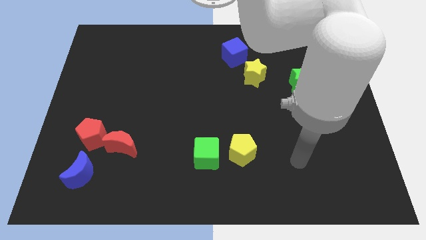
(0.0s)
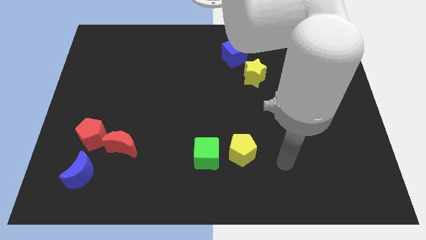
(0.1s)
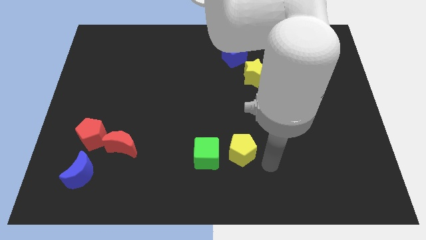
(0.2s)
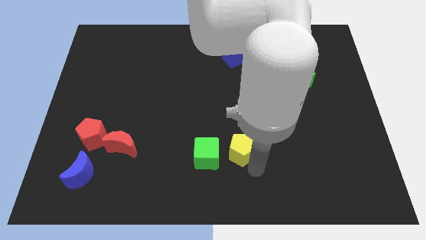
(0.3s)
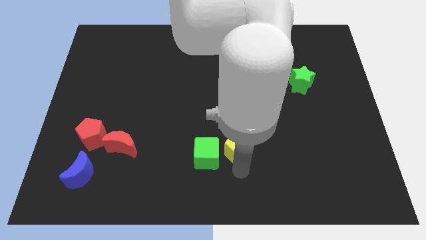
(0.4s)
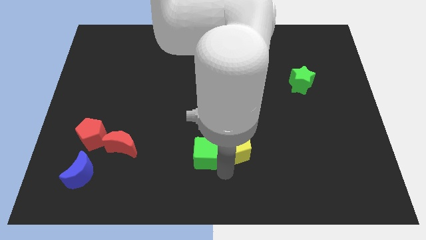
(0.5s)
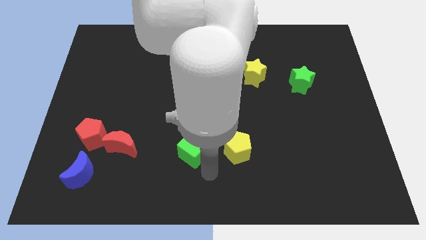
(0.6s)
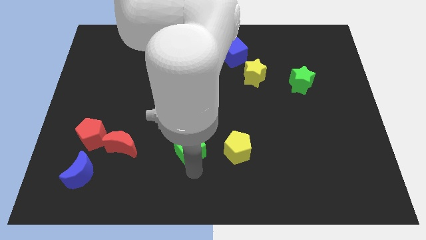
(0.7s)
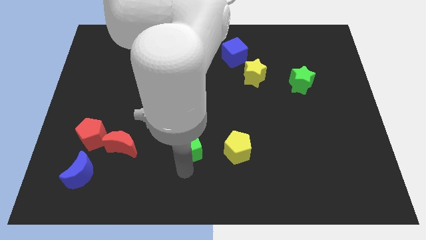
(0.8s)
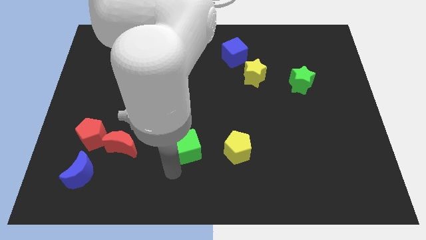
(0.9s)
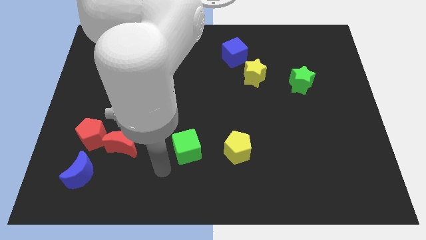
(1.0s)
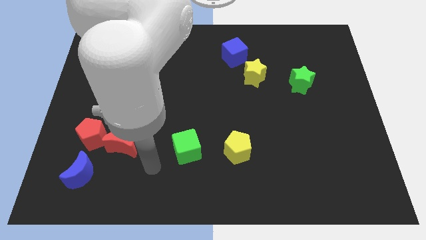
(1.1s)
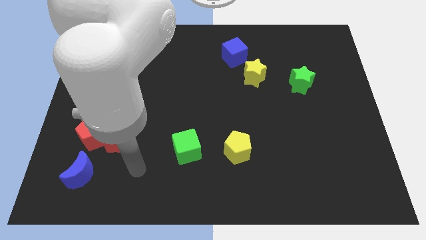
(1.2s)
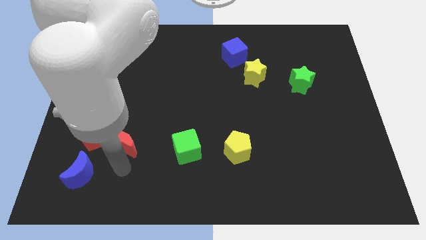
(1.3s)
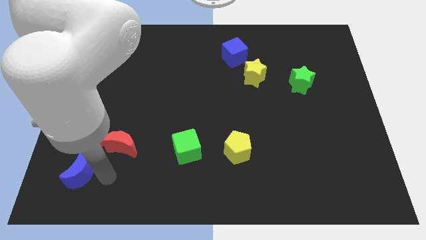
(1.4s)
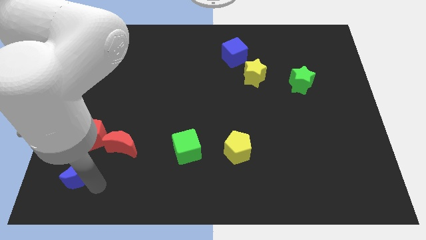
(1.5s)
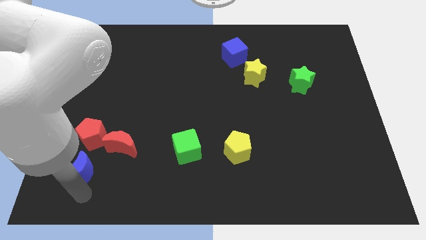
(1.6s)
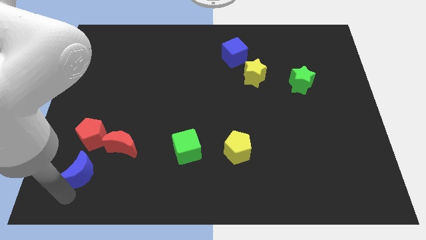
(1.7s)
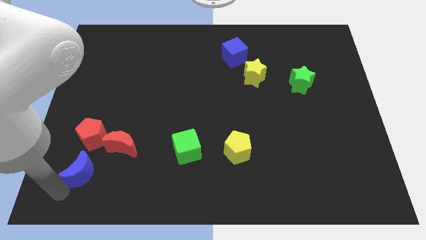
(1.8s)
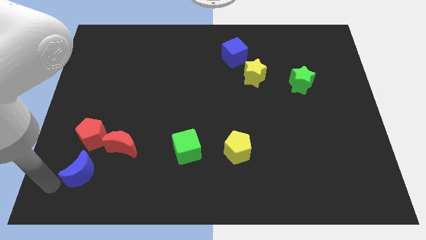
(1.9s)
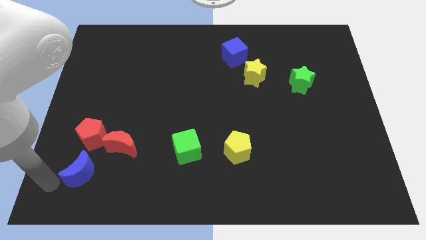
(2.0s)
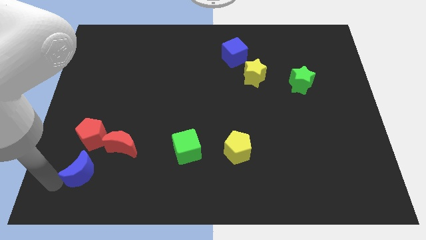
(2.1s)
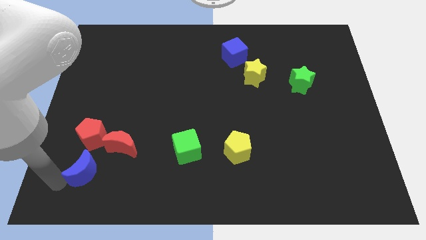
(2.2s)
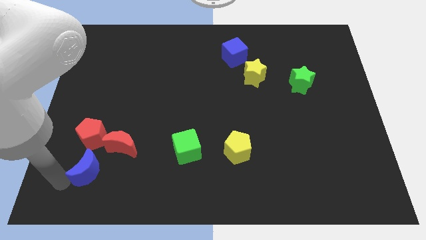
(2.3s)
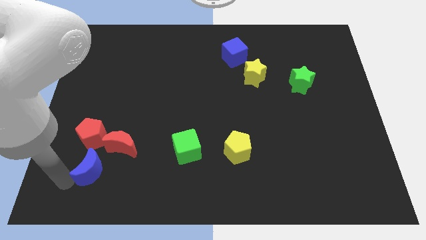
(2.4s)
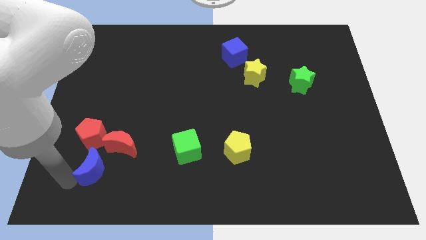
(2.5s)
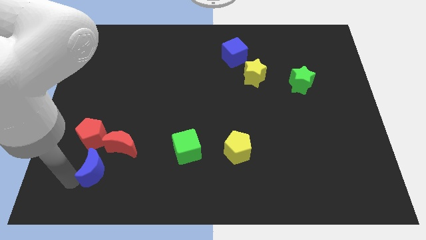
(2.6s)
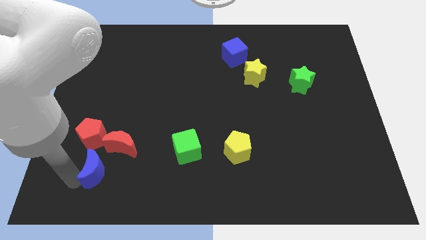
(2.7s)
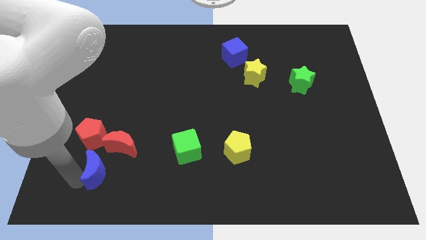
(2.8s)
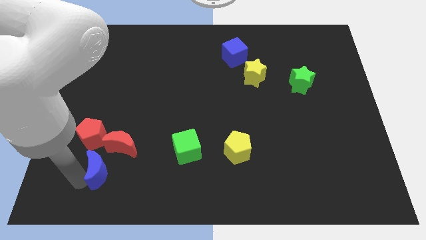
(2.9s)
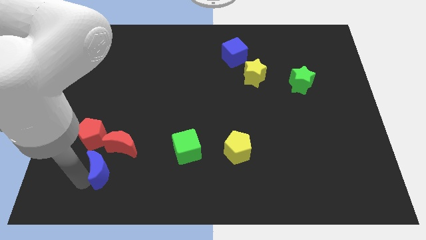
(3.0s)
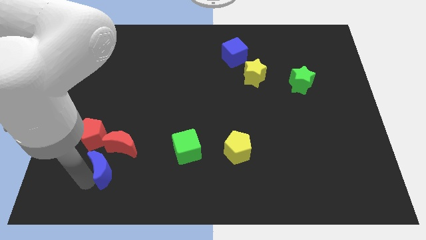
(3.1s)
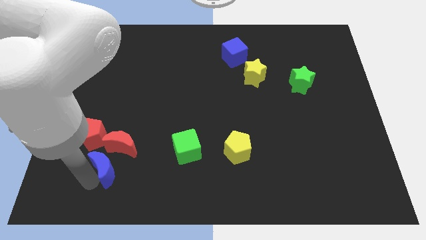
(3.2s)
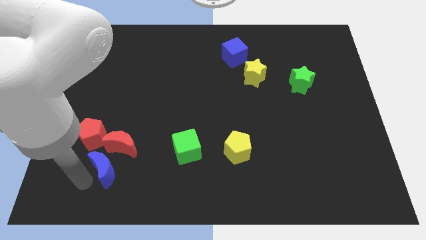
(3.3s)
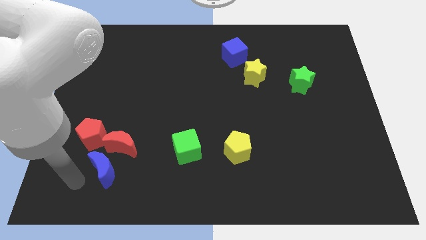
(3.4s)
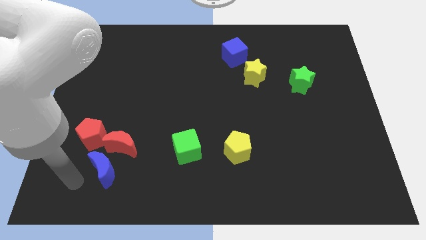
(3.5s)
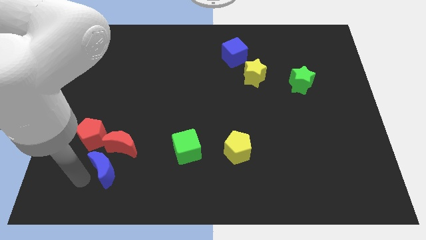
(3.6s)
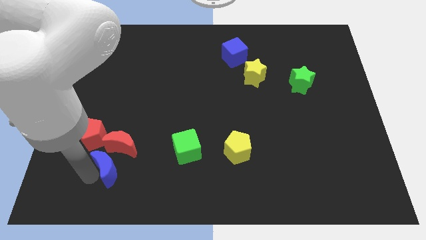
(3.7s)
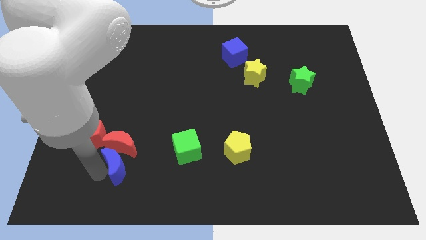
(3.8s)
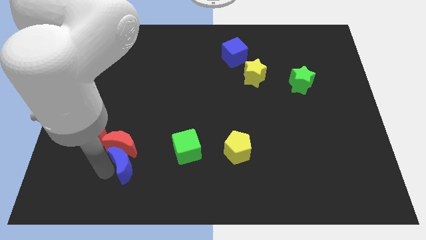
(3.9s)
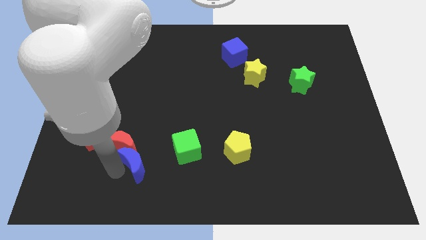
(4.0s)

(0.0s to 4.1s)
slightly move the blue moon diagonally up and to the right

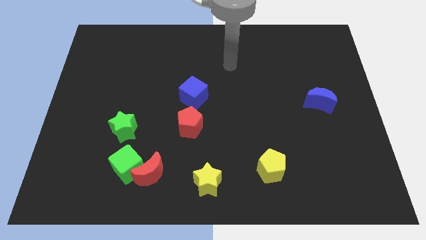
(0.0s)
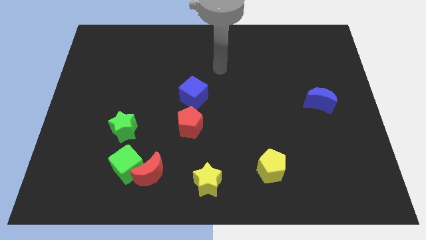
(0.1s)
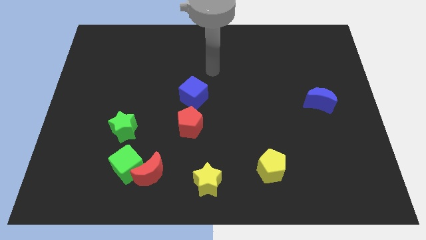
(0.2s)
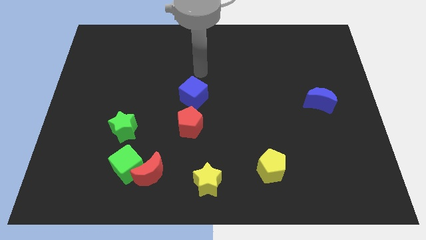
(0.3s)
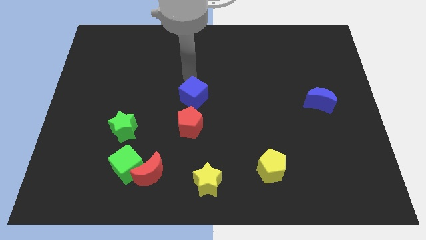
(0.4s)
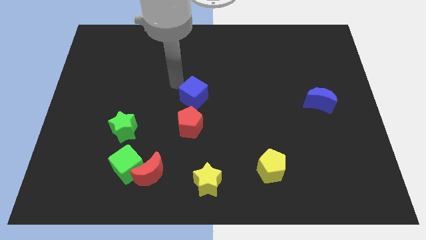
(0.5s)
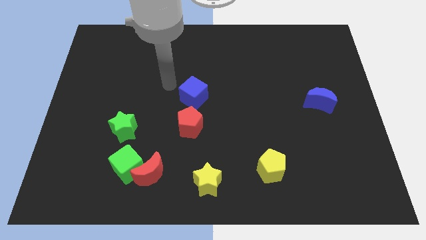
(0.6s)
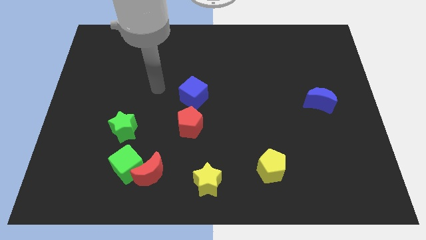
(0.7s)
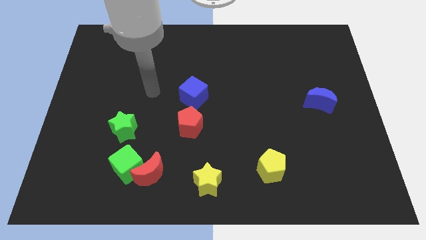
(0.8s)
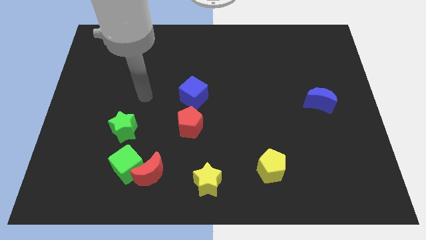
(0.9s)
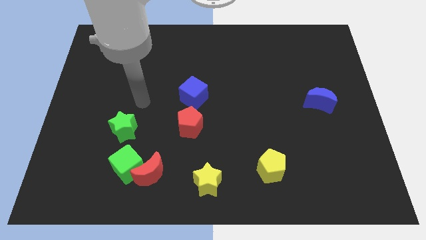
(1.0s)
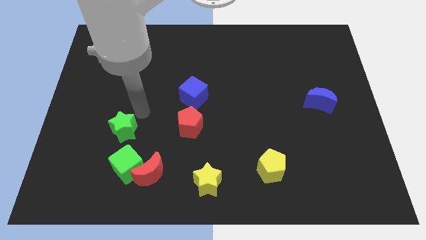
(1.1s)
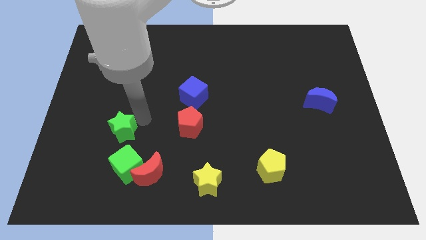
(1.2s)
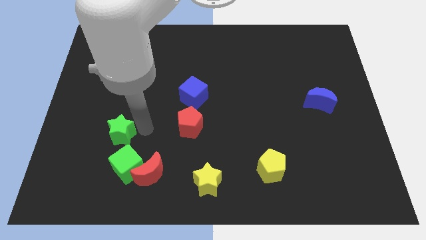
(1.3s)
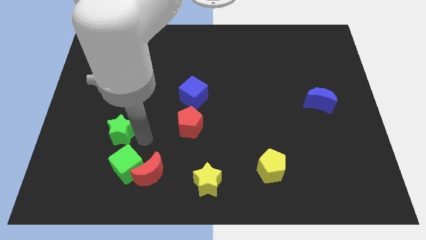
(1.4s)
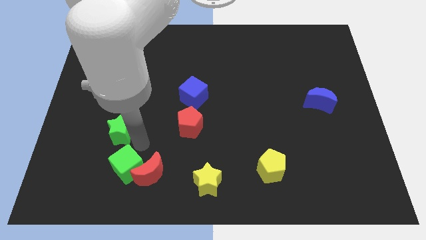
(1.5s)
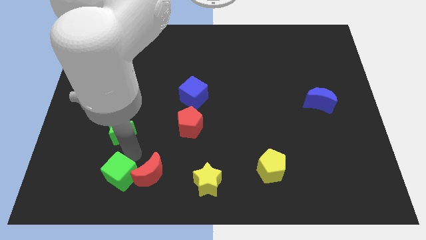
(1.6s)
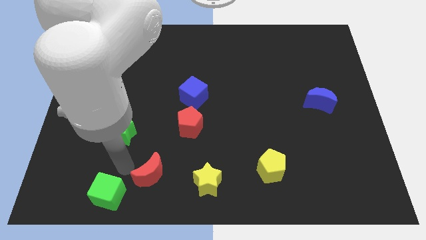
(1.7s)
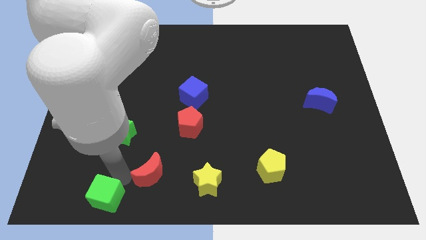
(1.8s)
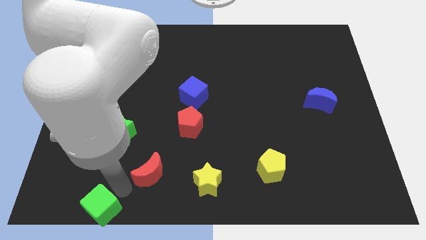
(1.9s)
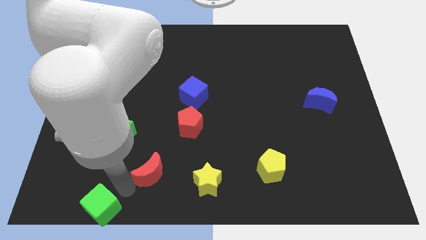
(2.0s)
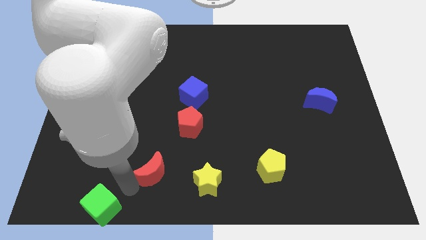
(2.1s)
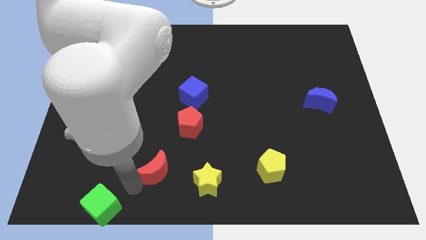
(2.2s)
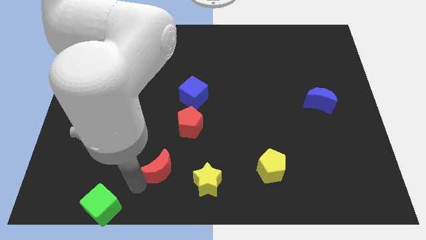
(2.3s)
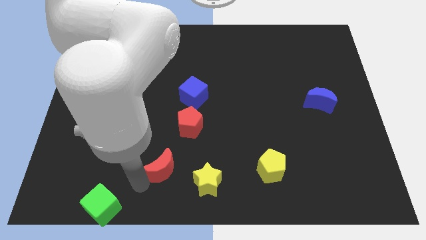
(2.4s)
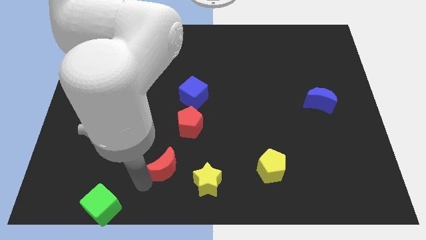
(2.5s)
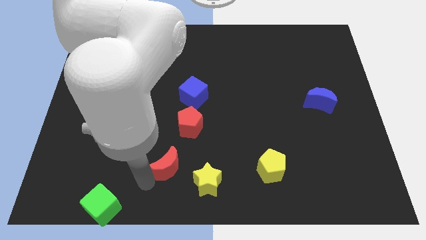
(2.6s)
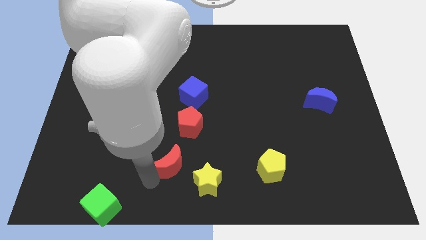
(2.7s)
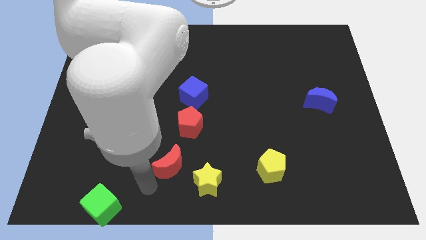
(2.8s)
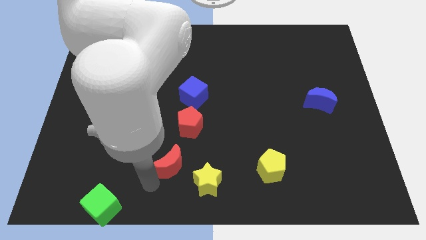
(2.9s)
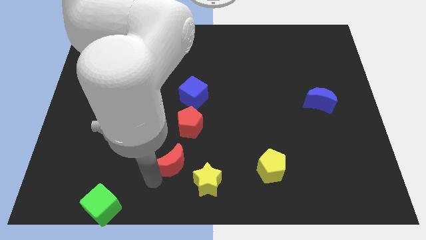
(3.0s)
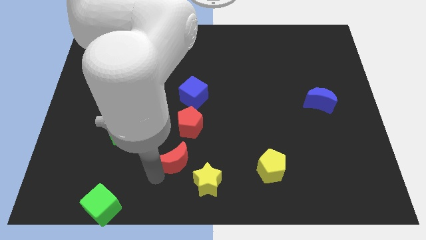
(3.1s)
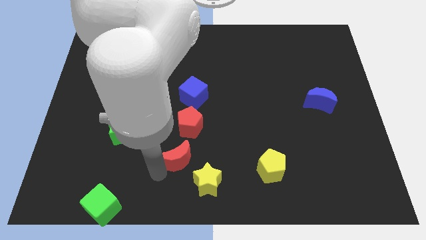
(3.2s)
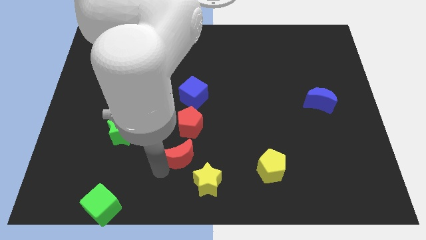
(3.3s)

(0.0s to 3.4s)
slide the red moon upwards and then to the right slightly
